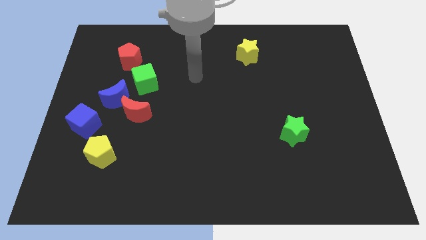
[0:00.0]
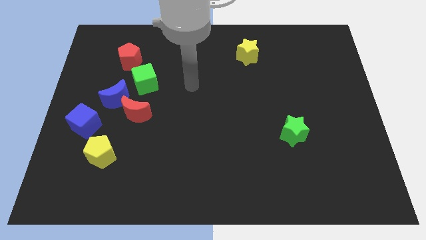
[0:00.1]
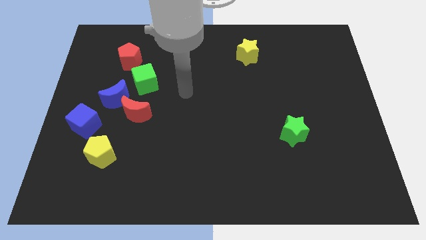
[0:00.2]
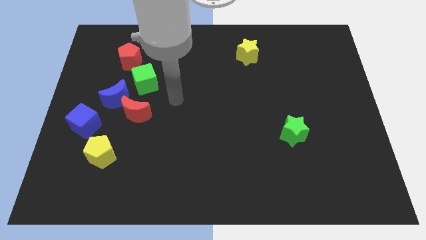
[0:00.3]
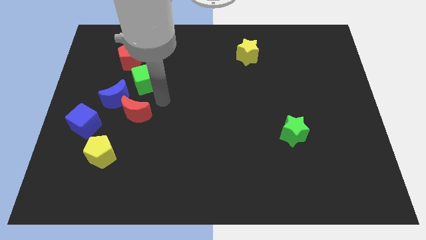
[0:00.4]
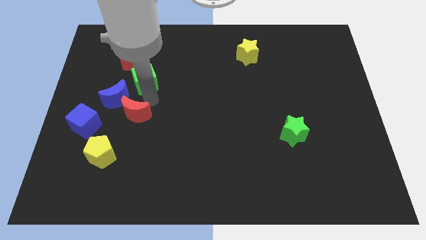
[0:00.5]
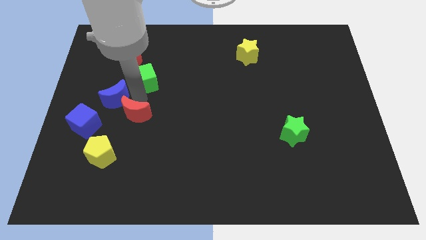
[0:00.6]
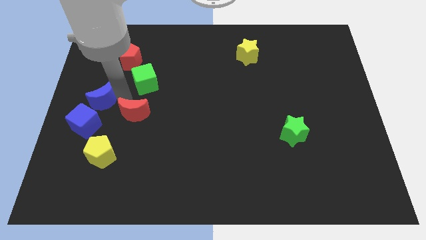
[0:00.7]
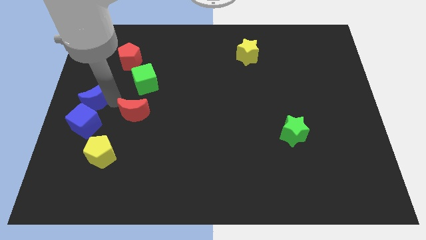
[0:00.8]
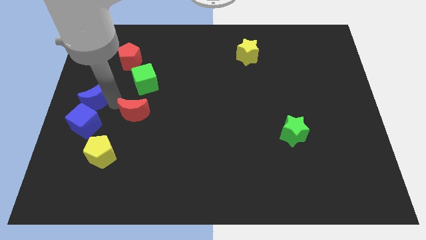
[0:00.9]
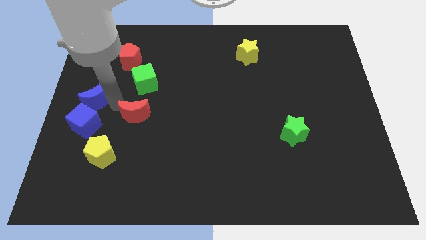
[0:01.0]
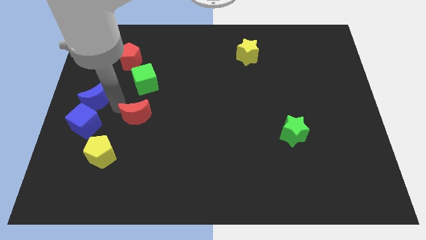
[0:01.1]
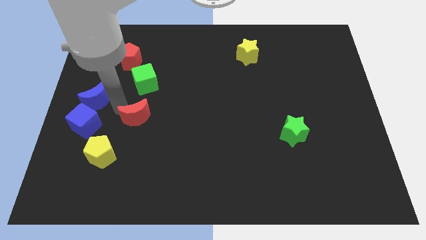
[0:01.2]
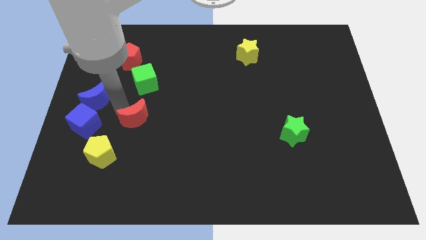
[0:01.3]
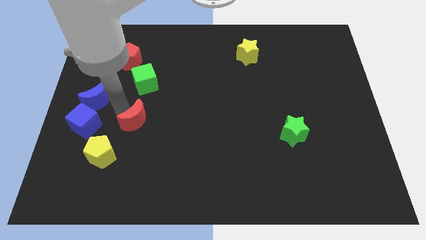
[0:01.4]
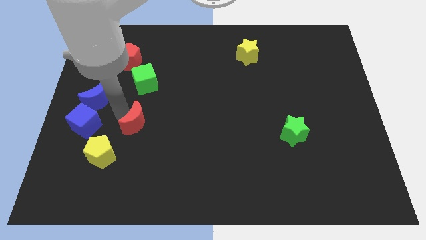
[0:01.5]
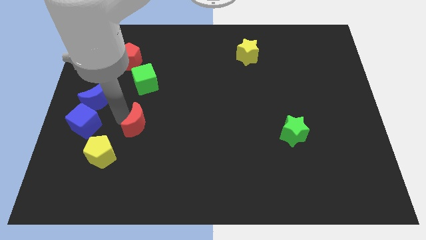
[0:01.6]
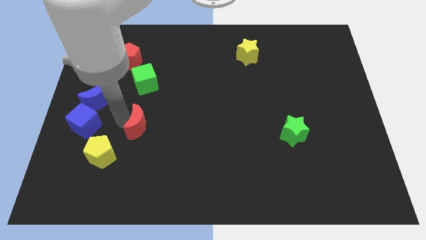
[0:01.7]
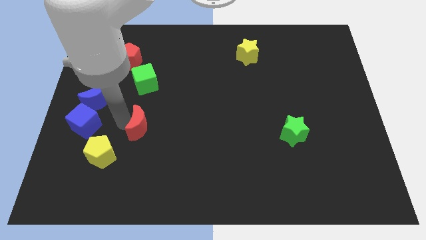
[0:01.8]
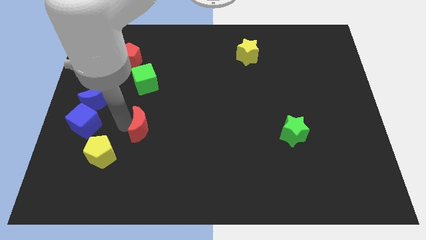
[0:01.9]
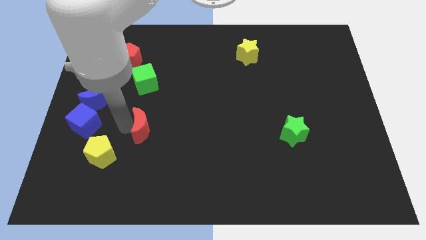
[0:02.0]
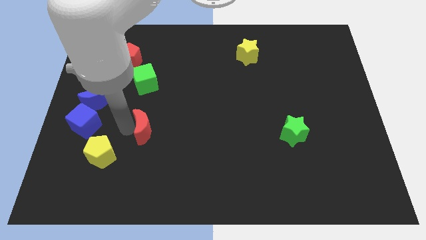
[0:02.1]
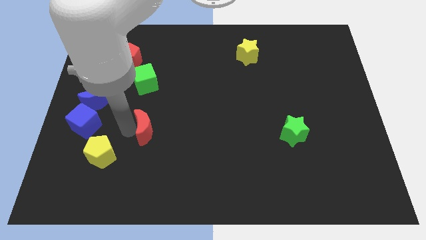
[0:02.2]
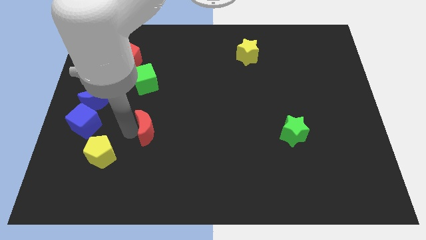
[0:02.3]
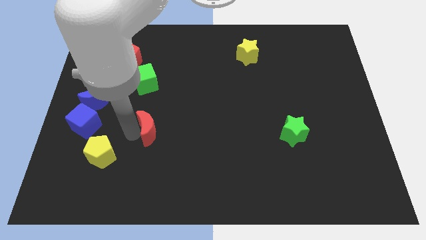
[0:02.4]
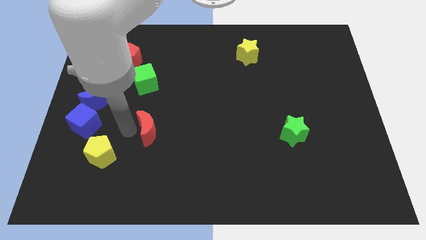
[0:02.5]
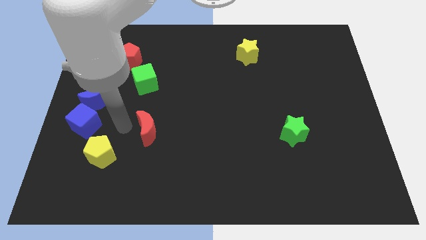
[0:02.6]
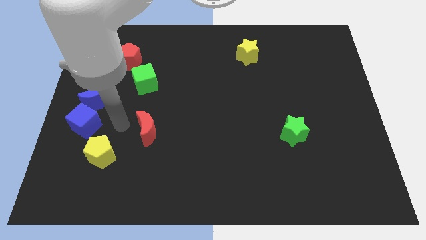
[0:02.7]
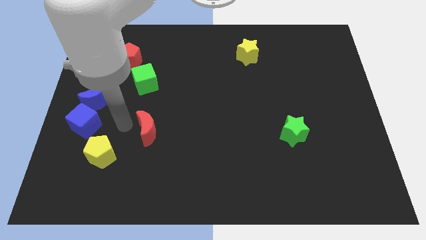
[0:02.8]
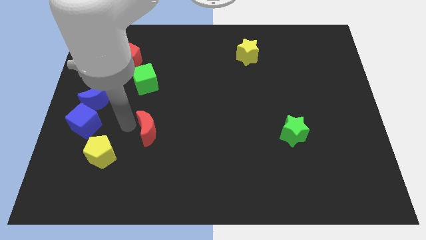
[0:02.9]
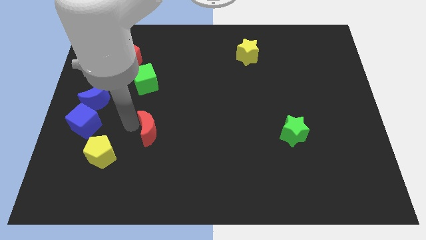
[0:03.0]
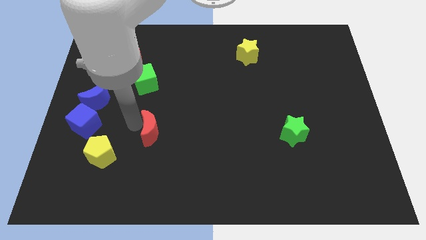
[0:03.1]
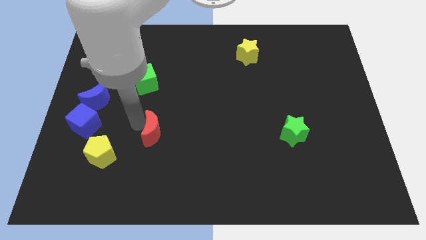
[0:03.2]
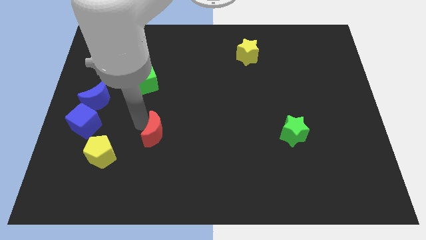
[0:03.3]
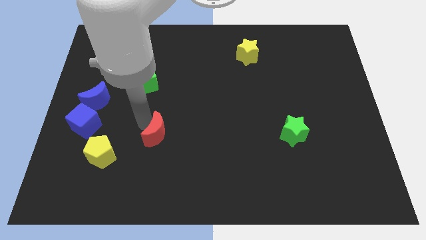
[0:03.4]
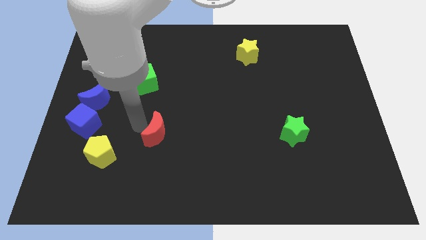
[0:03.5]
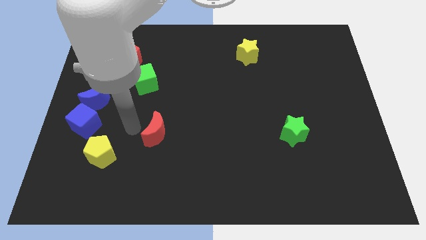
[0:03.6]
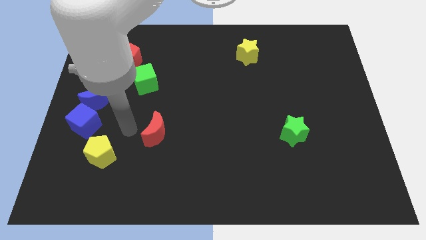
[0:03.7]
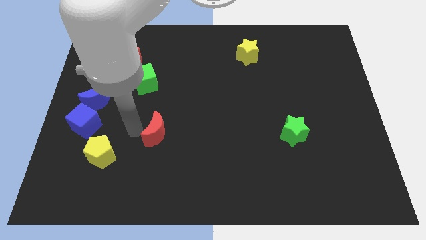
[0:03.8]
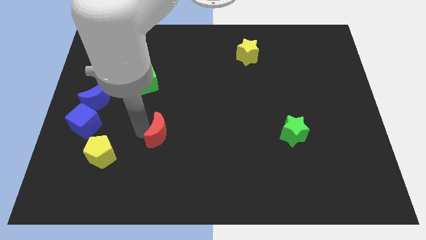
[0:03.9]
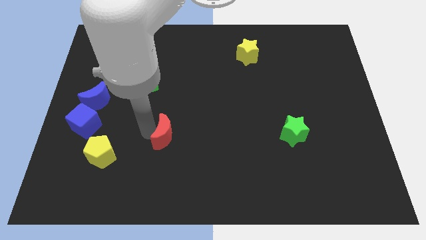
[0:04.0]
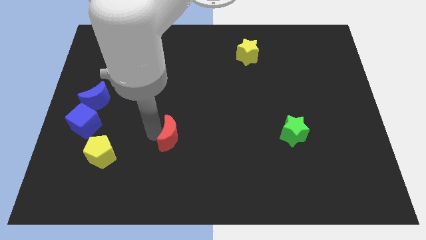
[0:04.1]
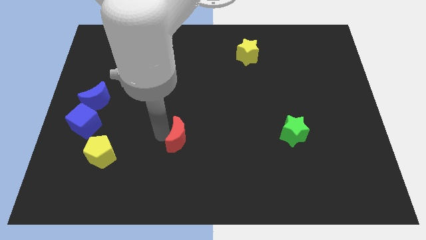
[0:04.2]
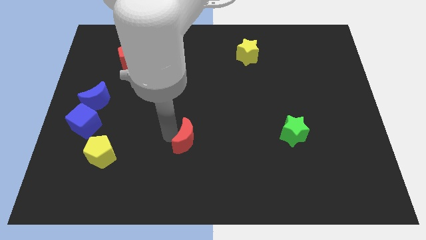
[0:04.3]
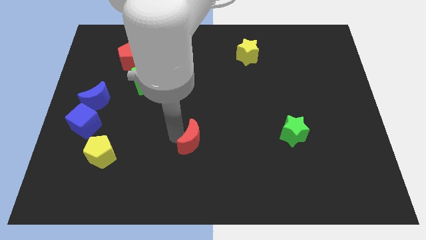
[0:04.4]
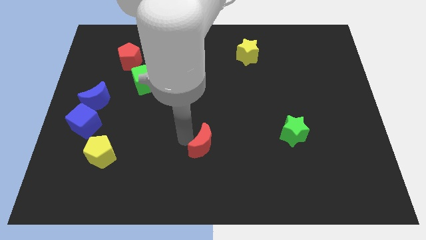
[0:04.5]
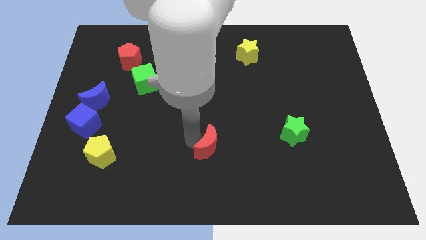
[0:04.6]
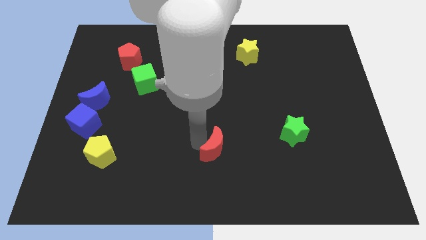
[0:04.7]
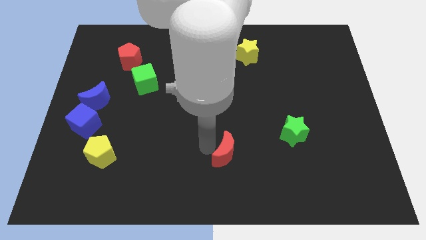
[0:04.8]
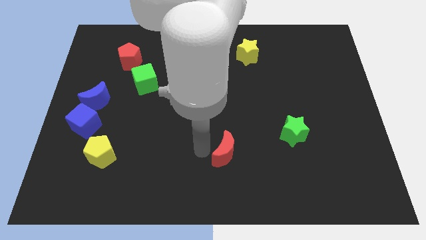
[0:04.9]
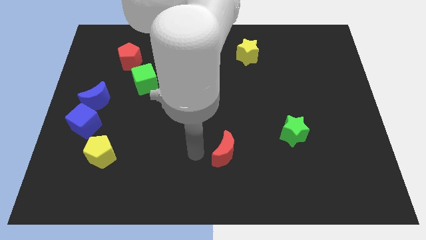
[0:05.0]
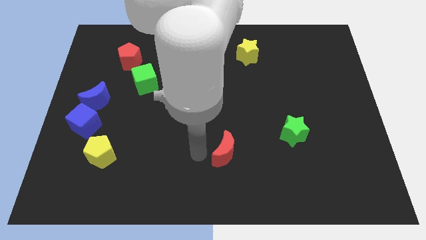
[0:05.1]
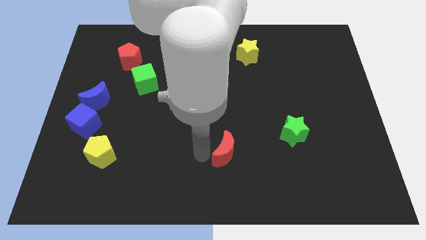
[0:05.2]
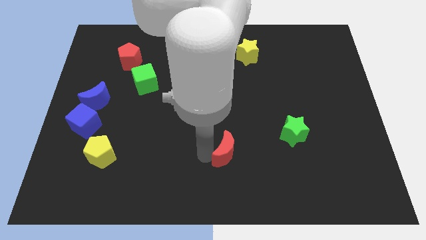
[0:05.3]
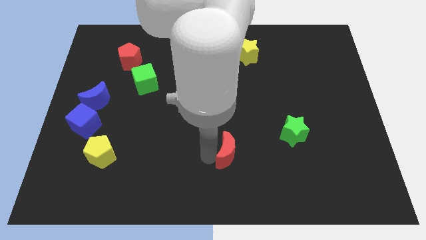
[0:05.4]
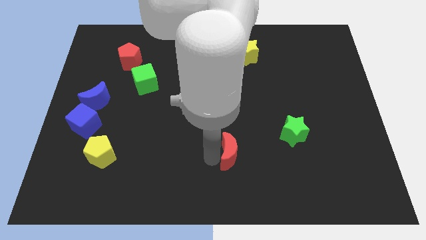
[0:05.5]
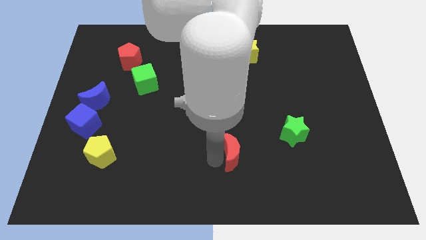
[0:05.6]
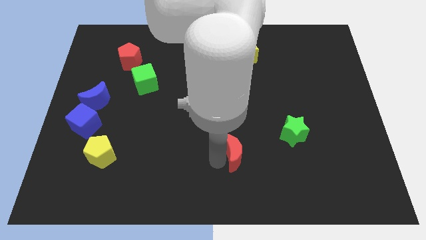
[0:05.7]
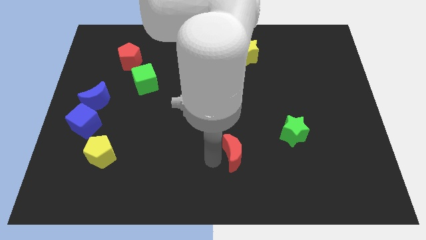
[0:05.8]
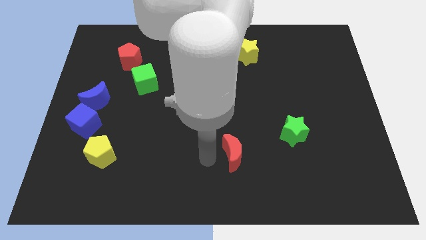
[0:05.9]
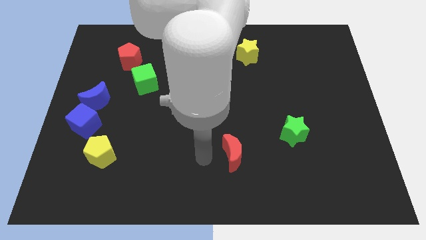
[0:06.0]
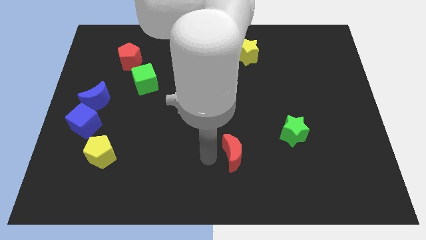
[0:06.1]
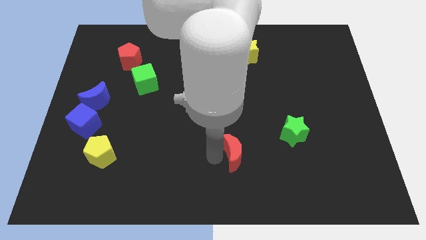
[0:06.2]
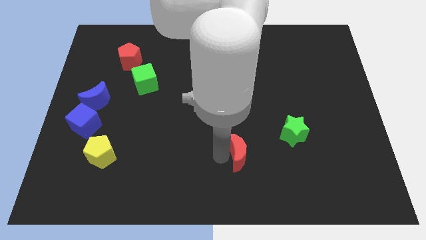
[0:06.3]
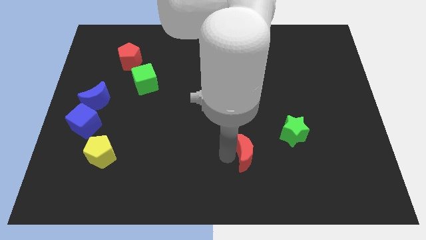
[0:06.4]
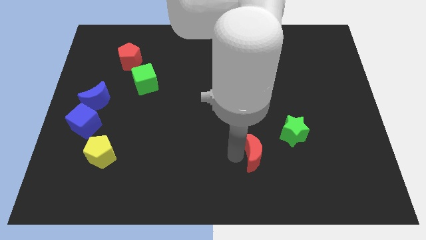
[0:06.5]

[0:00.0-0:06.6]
put the red moon to the bottom left of the green star
